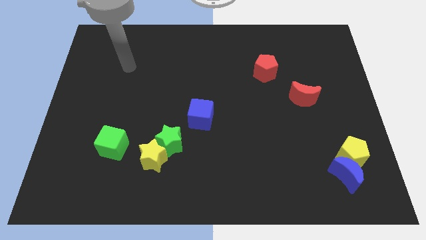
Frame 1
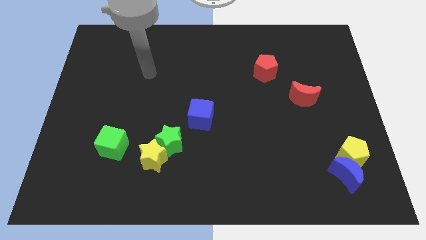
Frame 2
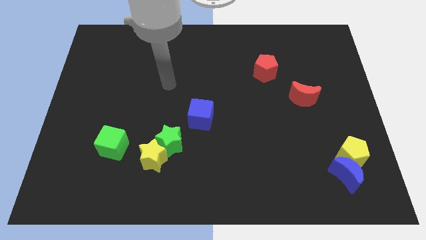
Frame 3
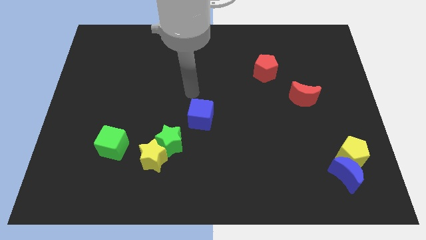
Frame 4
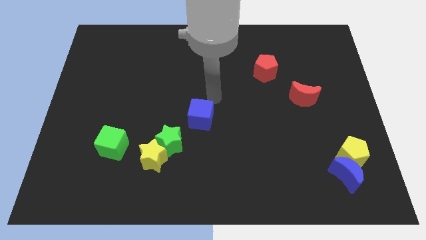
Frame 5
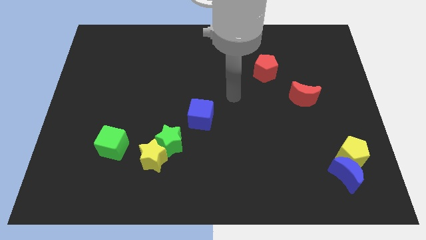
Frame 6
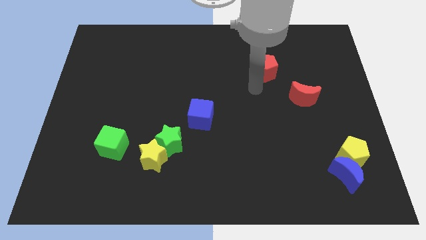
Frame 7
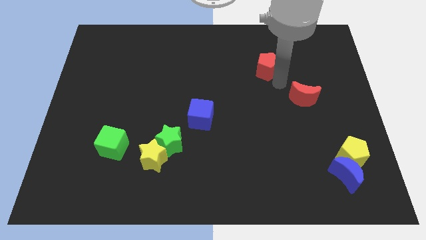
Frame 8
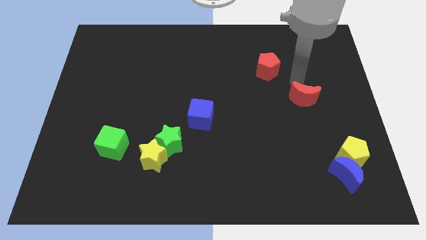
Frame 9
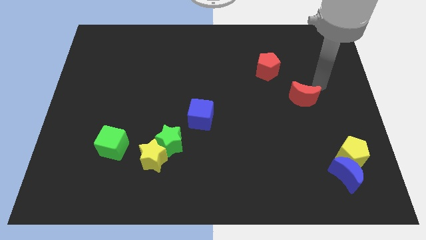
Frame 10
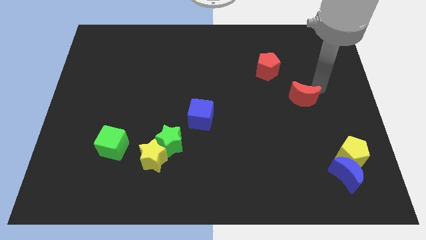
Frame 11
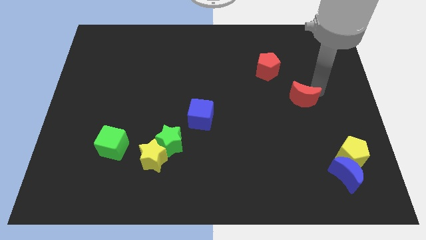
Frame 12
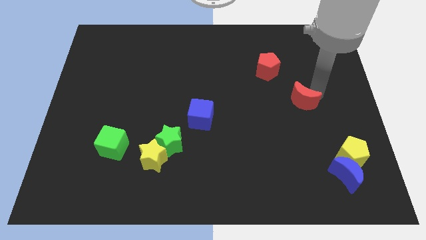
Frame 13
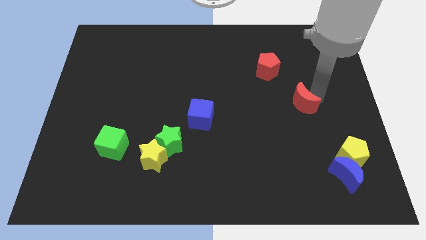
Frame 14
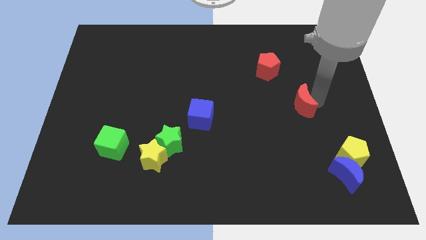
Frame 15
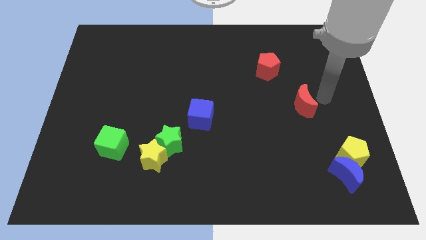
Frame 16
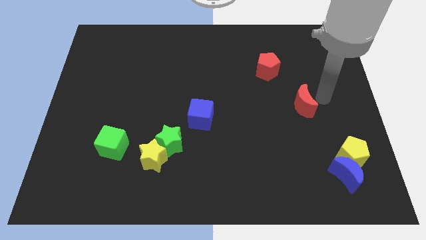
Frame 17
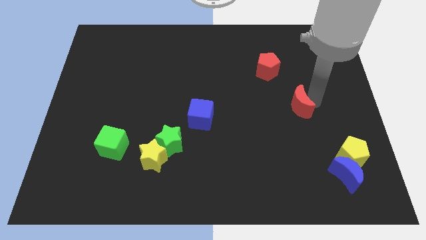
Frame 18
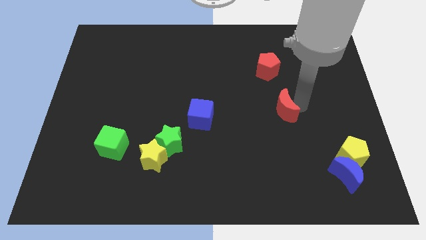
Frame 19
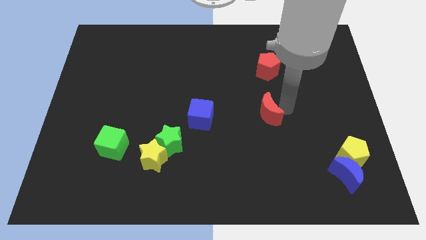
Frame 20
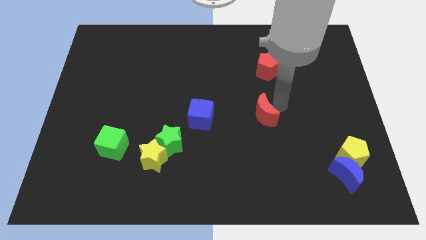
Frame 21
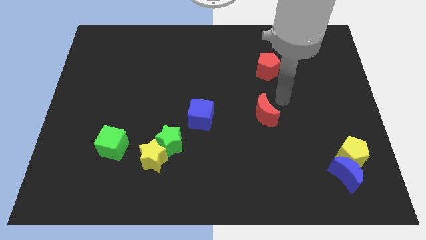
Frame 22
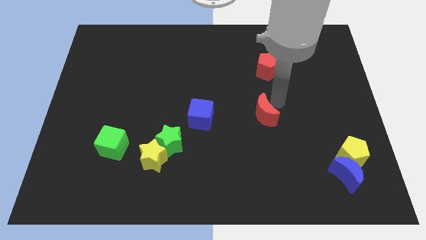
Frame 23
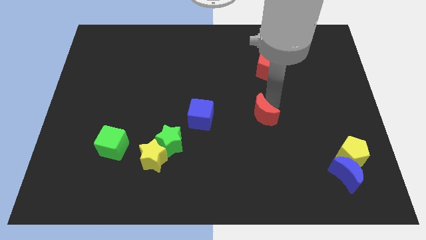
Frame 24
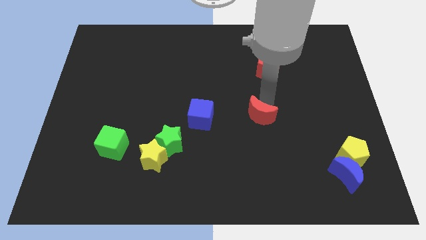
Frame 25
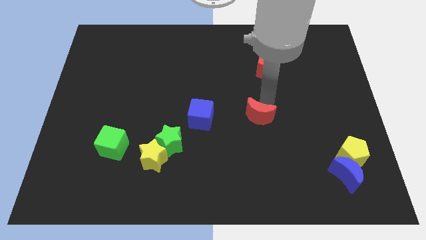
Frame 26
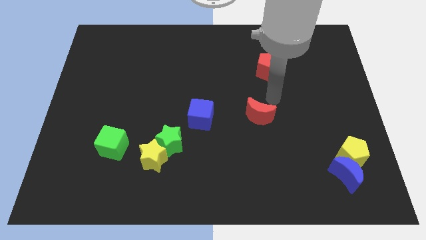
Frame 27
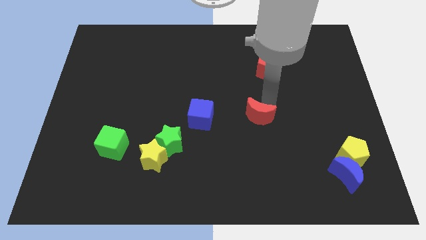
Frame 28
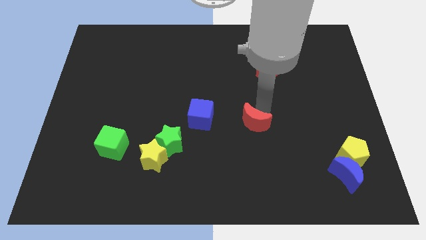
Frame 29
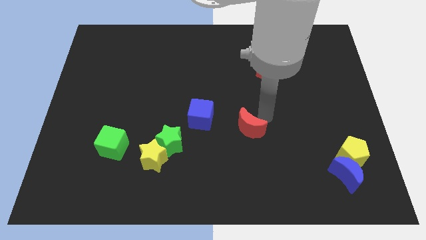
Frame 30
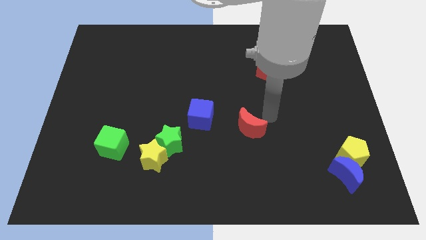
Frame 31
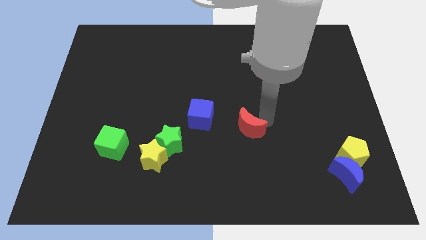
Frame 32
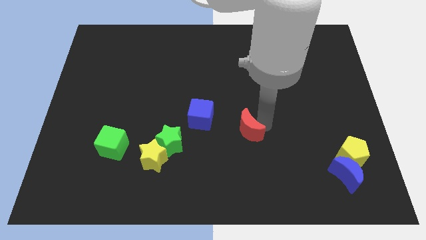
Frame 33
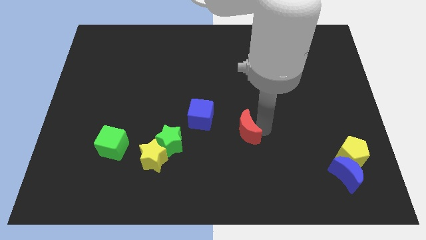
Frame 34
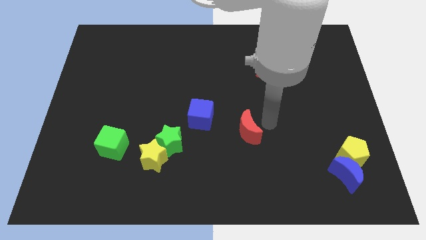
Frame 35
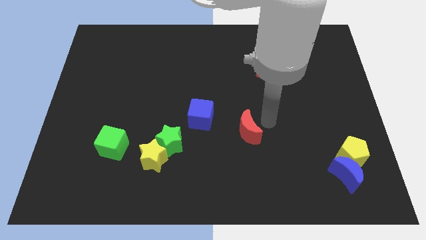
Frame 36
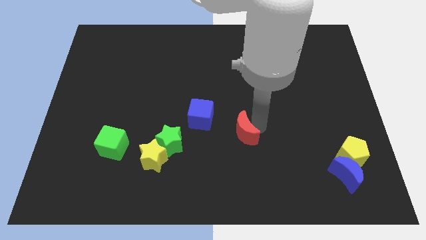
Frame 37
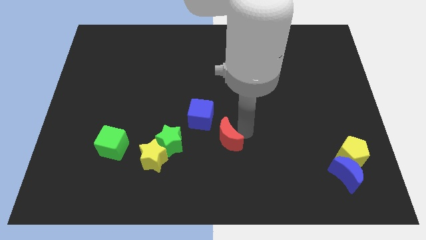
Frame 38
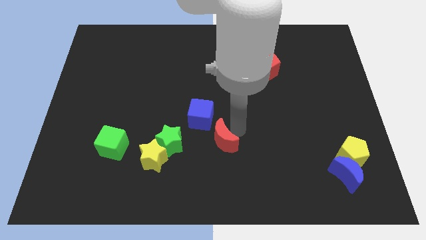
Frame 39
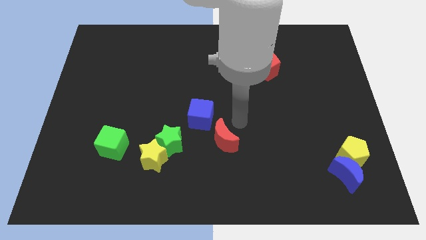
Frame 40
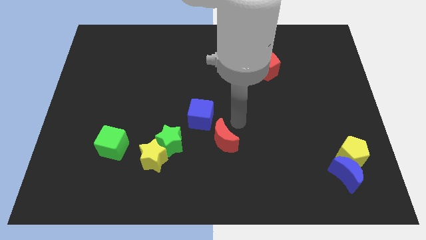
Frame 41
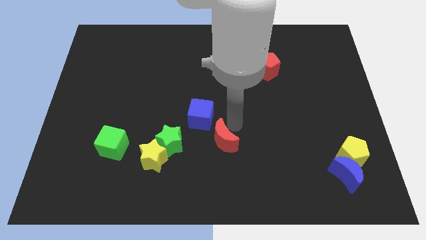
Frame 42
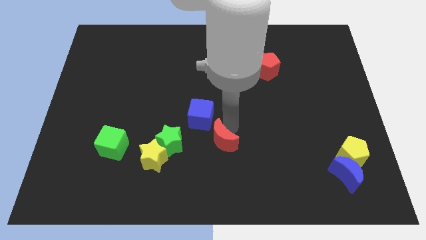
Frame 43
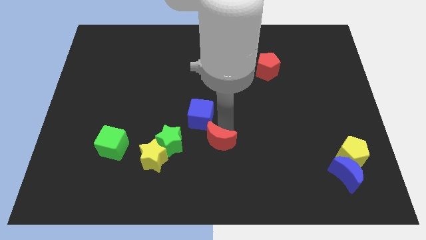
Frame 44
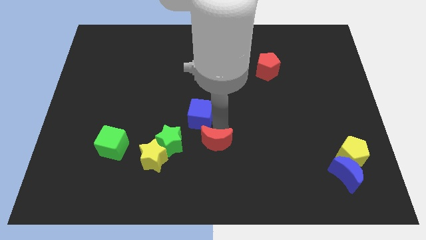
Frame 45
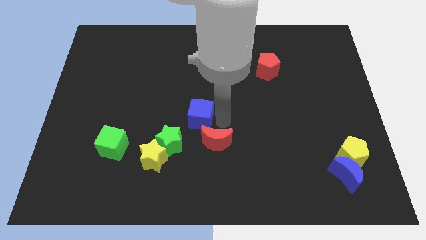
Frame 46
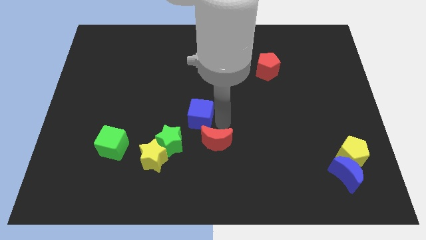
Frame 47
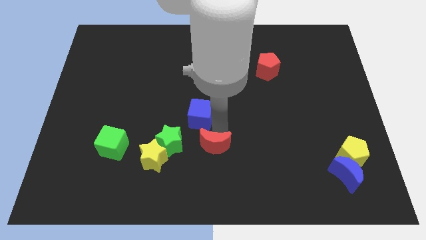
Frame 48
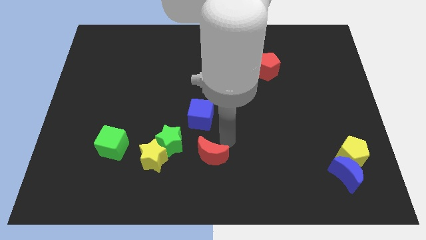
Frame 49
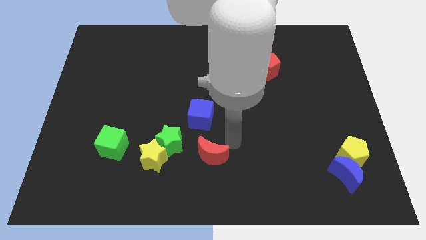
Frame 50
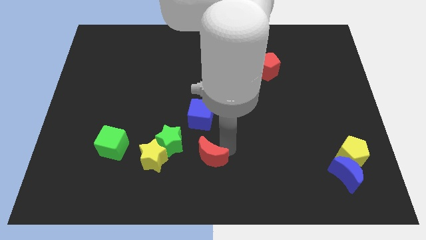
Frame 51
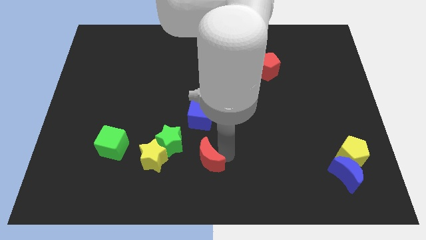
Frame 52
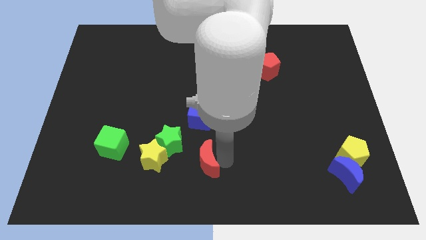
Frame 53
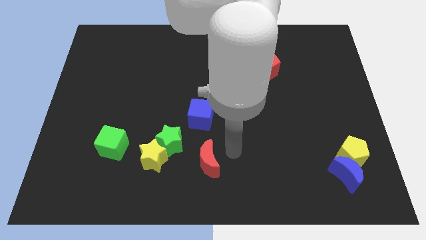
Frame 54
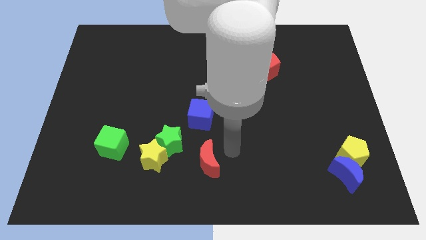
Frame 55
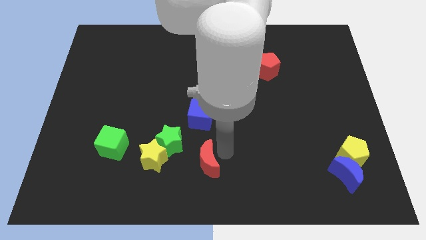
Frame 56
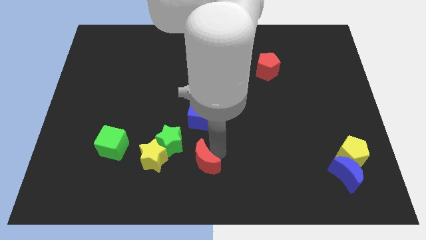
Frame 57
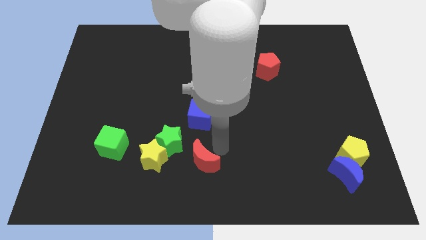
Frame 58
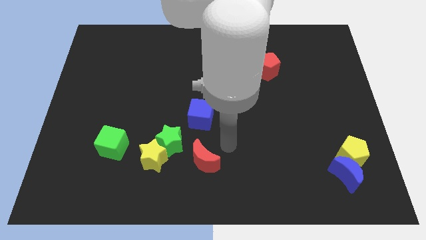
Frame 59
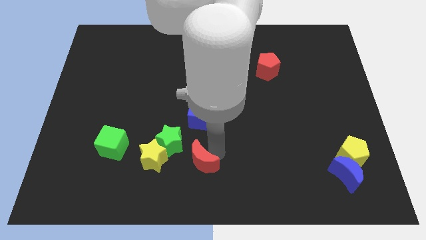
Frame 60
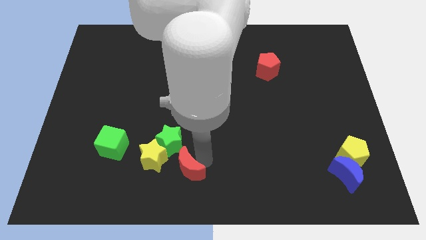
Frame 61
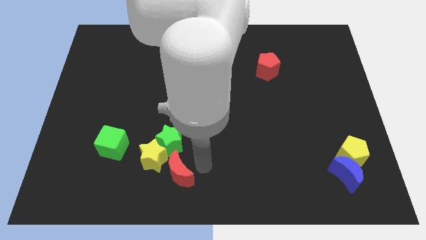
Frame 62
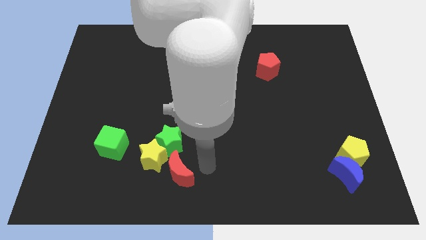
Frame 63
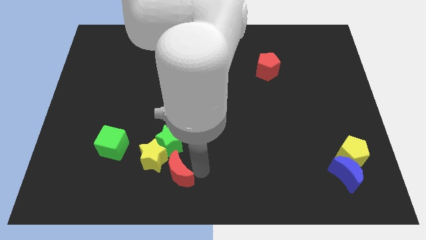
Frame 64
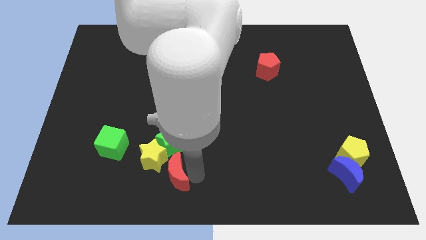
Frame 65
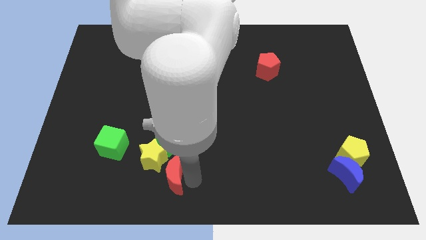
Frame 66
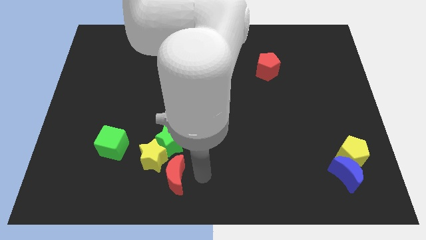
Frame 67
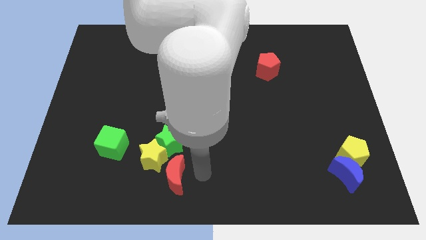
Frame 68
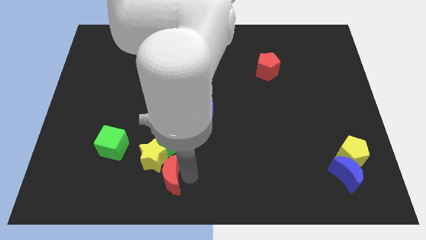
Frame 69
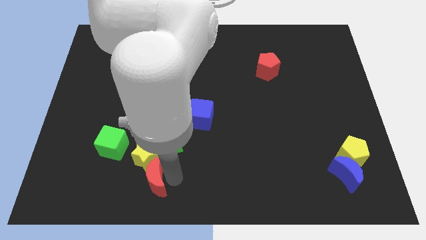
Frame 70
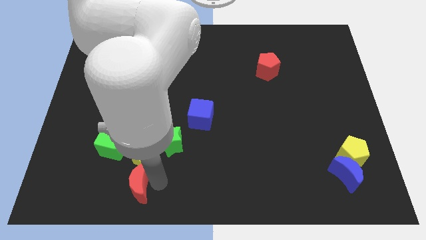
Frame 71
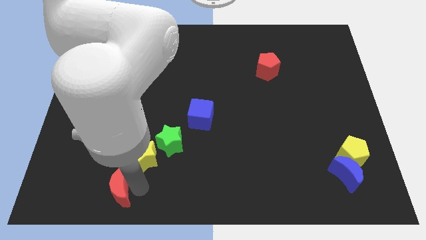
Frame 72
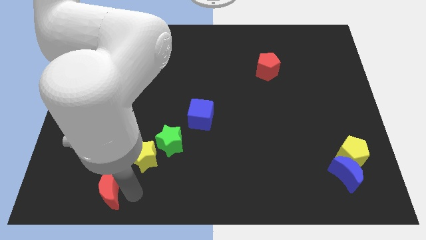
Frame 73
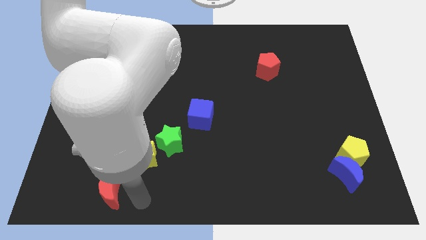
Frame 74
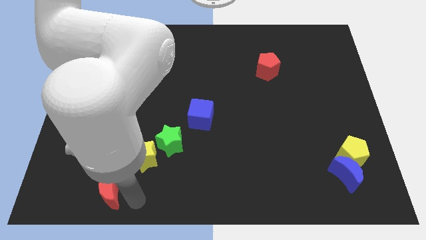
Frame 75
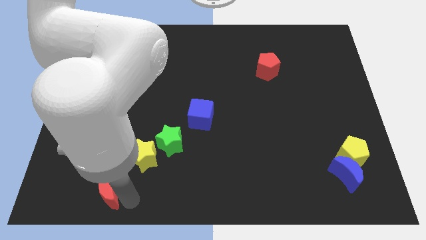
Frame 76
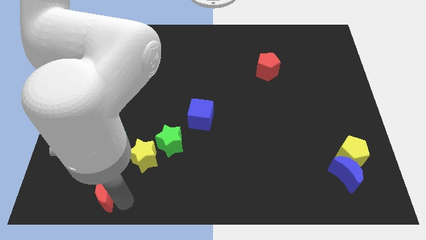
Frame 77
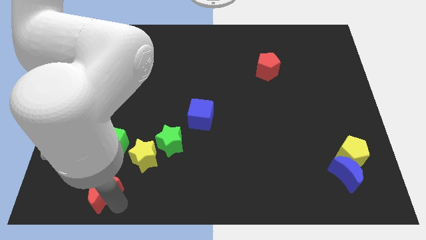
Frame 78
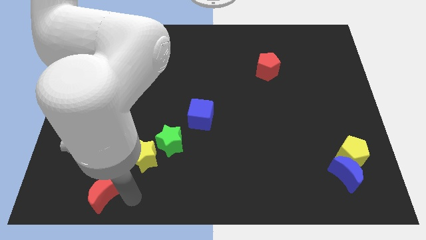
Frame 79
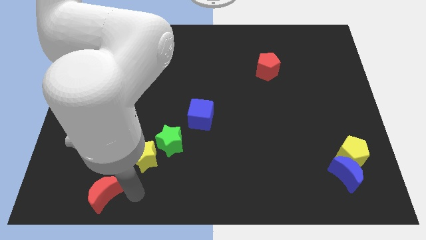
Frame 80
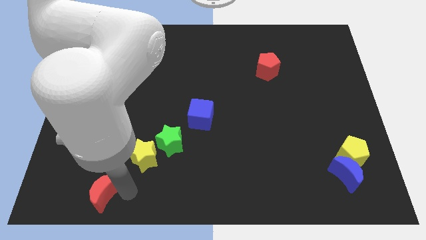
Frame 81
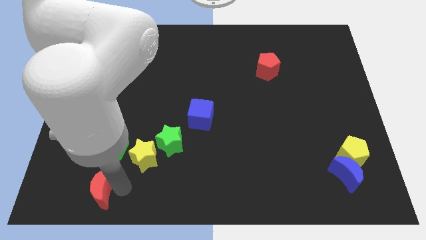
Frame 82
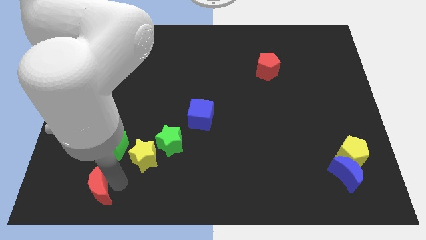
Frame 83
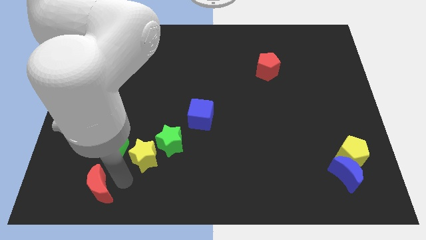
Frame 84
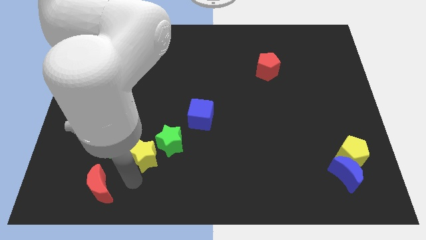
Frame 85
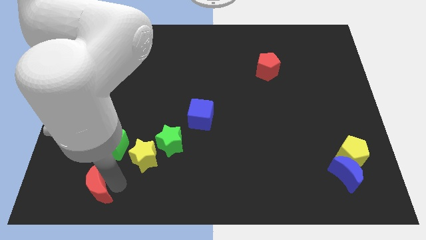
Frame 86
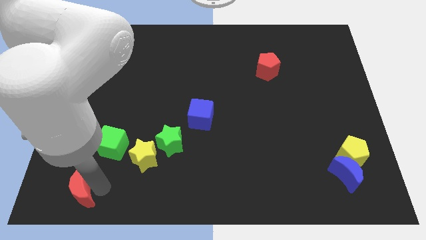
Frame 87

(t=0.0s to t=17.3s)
move the red moon to the bottom left corner
